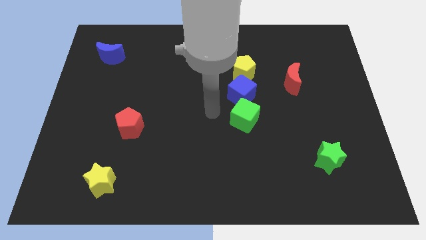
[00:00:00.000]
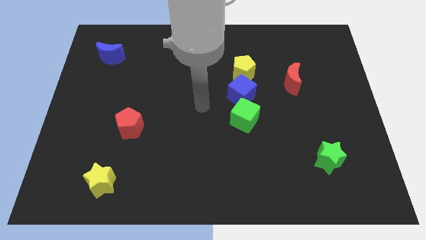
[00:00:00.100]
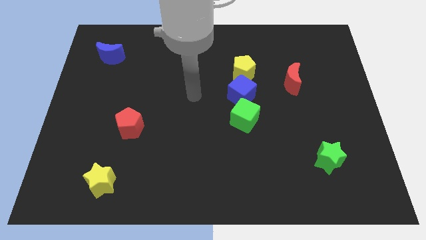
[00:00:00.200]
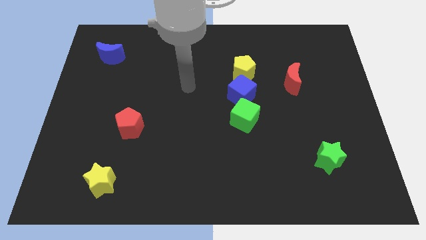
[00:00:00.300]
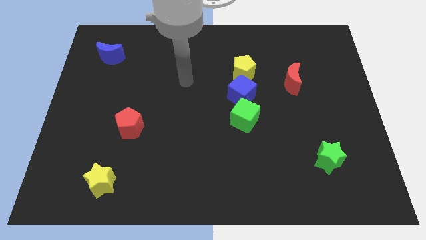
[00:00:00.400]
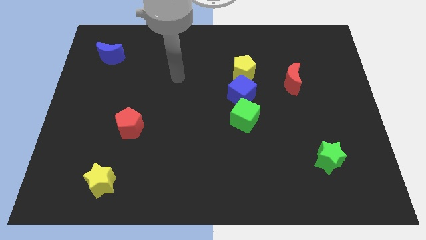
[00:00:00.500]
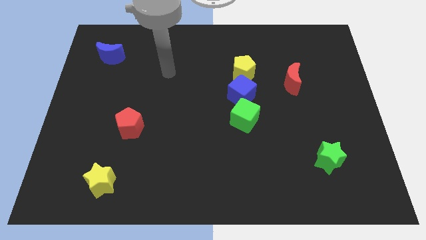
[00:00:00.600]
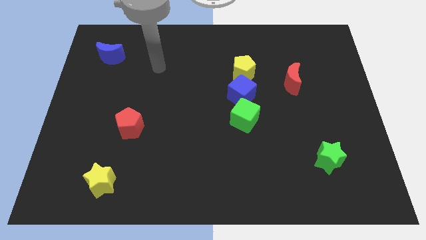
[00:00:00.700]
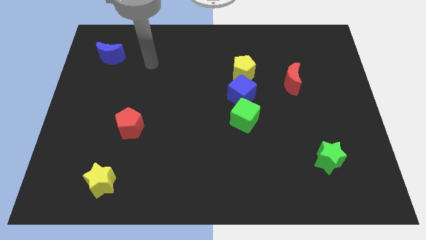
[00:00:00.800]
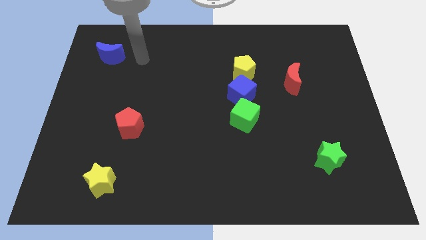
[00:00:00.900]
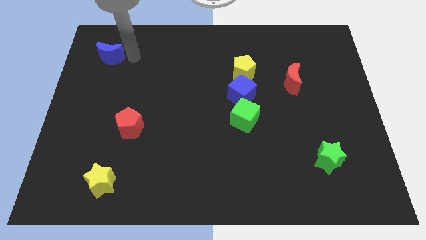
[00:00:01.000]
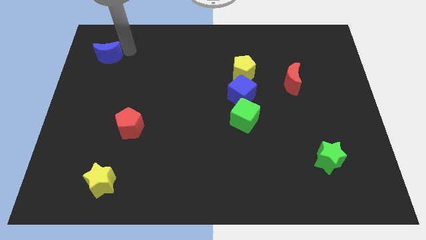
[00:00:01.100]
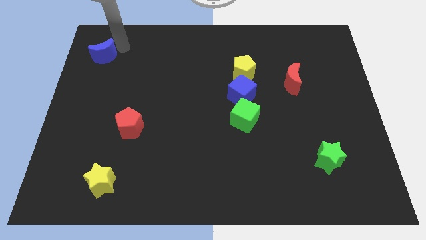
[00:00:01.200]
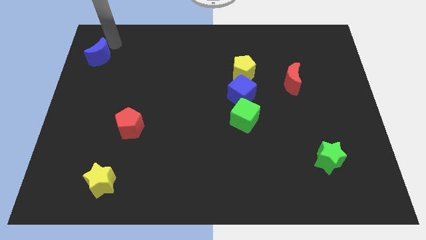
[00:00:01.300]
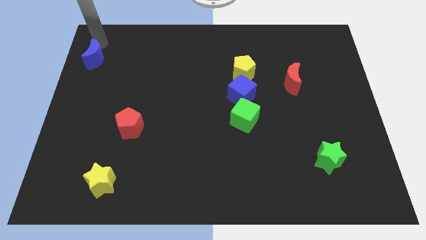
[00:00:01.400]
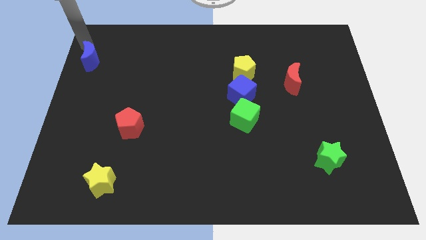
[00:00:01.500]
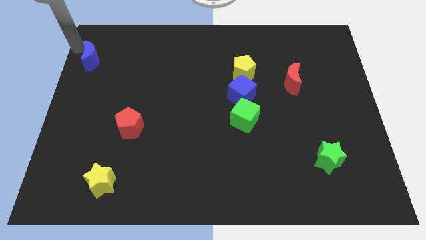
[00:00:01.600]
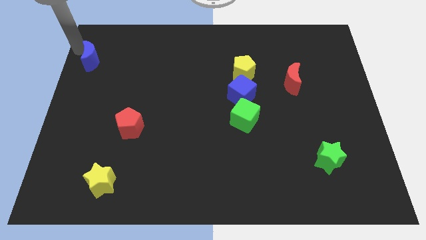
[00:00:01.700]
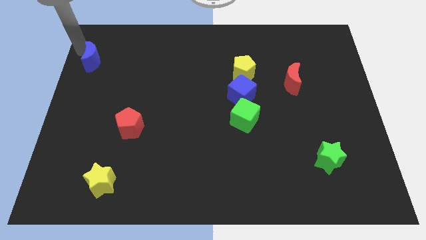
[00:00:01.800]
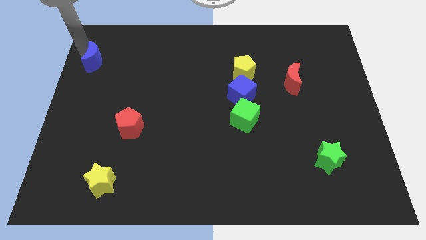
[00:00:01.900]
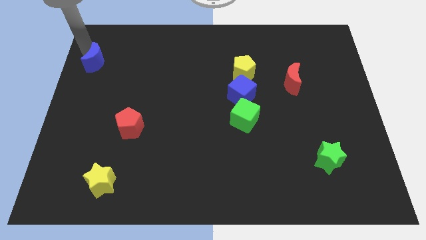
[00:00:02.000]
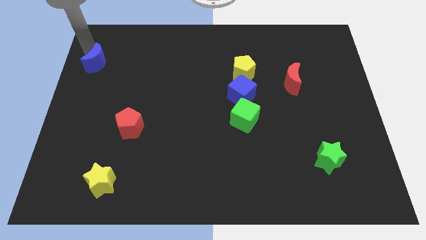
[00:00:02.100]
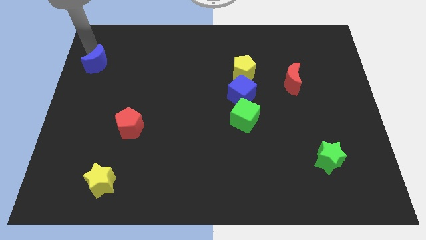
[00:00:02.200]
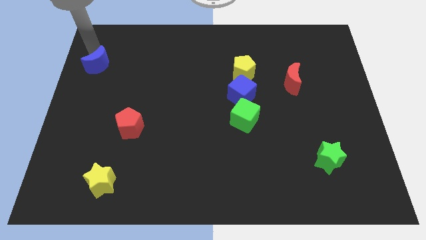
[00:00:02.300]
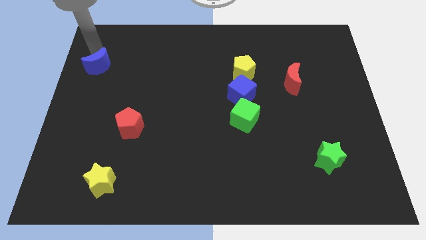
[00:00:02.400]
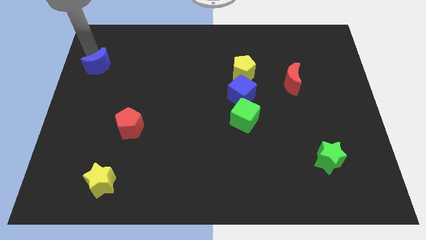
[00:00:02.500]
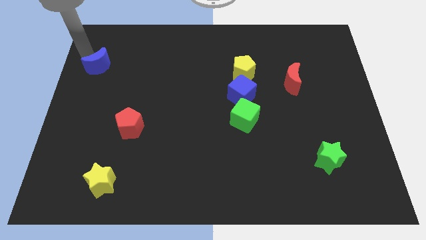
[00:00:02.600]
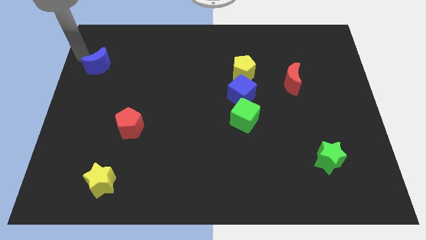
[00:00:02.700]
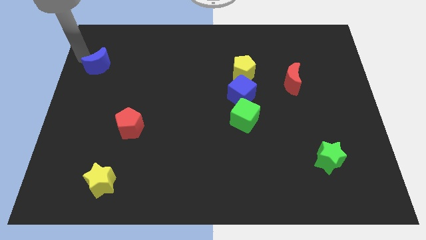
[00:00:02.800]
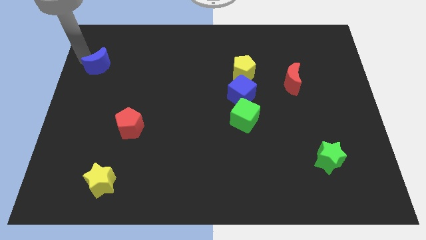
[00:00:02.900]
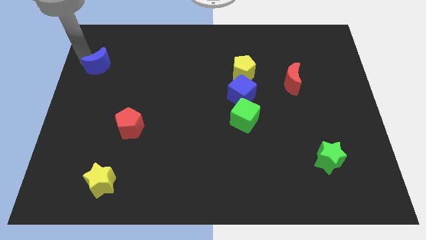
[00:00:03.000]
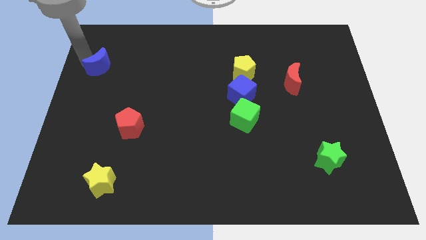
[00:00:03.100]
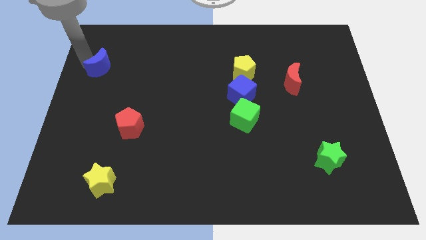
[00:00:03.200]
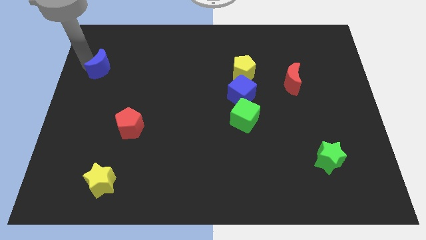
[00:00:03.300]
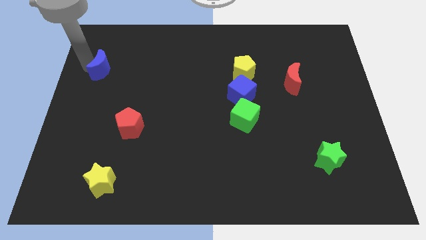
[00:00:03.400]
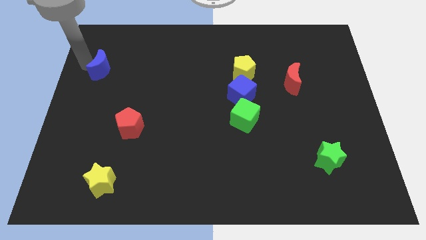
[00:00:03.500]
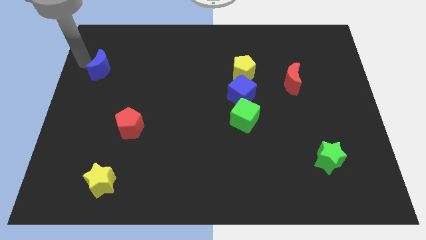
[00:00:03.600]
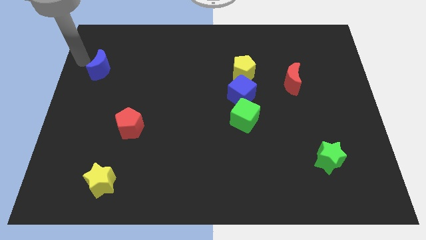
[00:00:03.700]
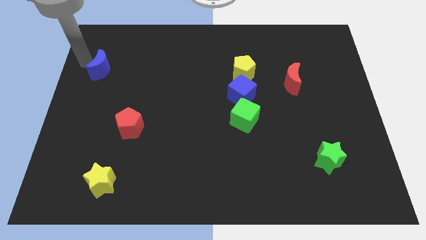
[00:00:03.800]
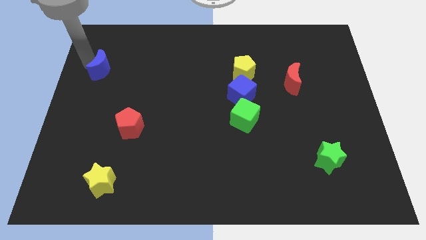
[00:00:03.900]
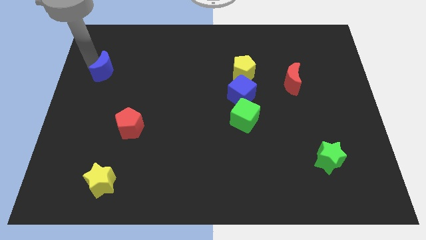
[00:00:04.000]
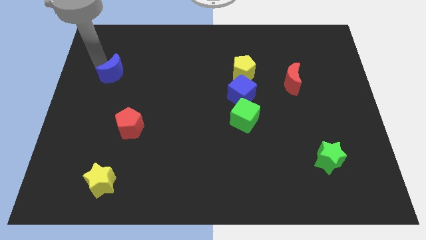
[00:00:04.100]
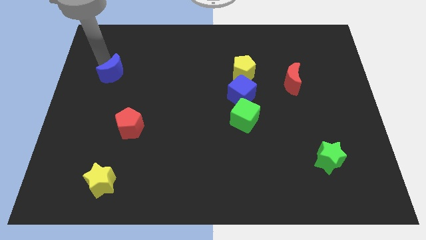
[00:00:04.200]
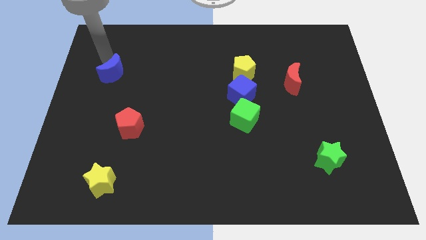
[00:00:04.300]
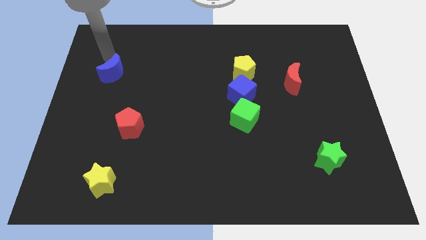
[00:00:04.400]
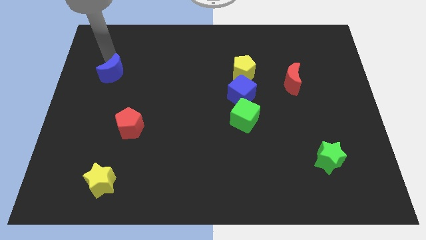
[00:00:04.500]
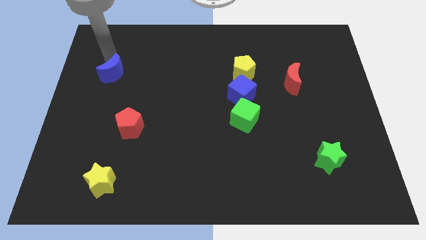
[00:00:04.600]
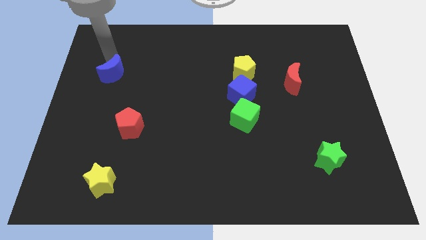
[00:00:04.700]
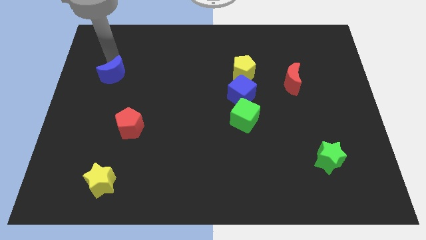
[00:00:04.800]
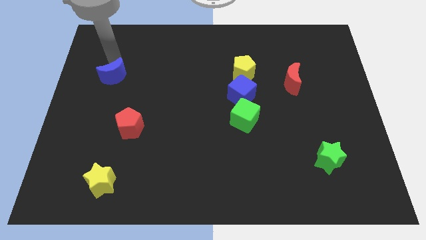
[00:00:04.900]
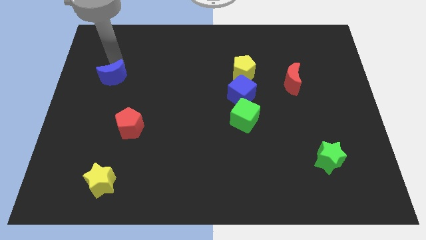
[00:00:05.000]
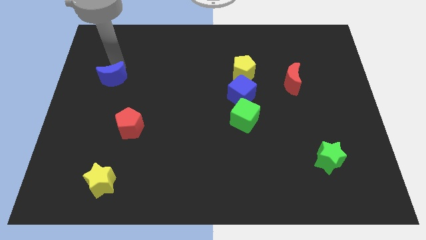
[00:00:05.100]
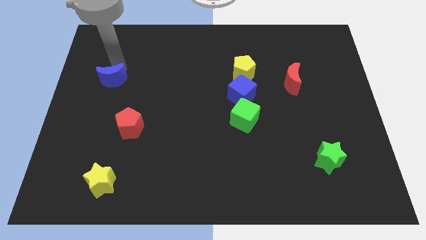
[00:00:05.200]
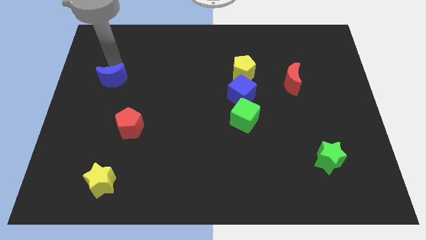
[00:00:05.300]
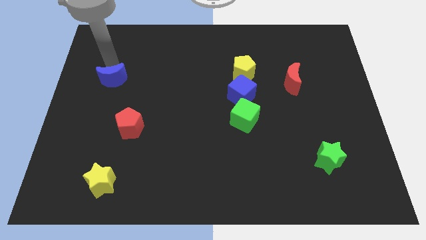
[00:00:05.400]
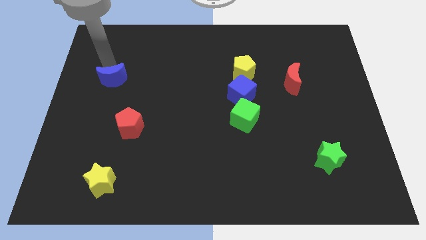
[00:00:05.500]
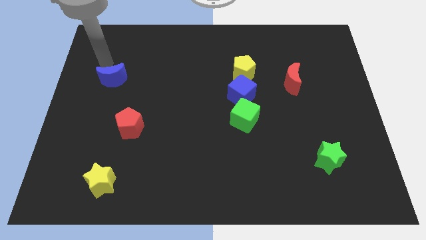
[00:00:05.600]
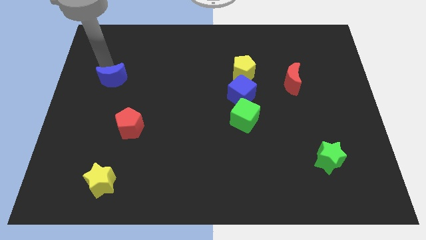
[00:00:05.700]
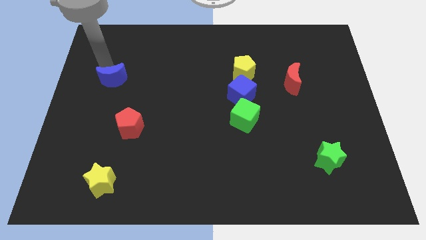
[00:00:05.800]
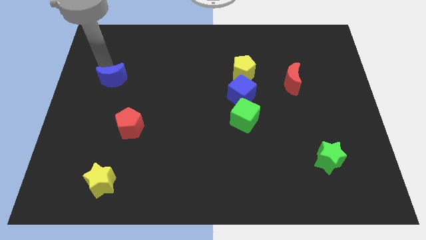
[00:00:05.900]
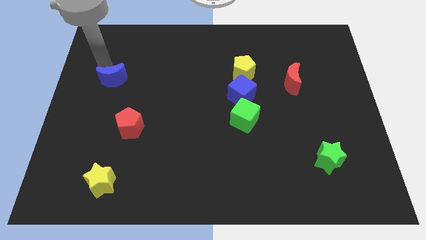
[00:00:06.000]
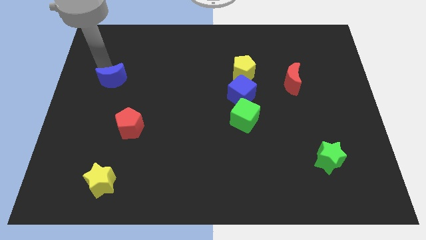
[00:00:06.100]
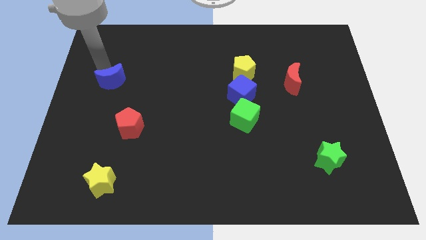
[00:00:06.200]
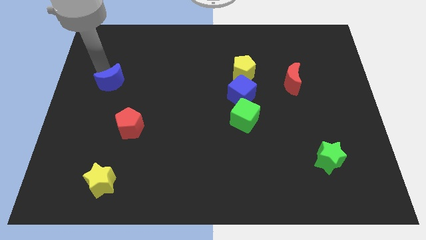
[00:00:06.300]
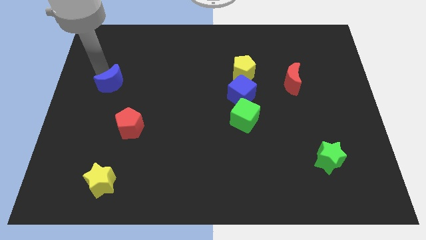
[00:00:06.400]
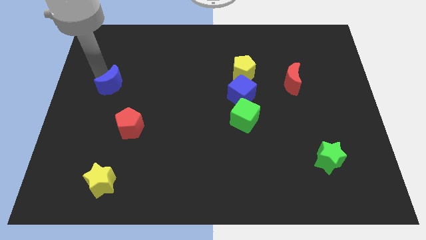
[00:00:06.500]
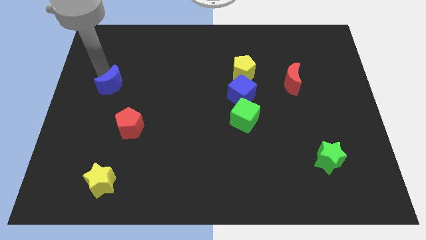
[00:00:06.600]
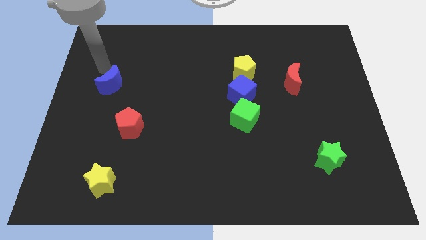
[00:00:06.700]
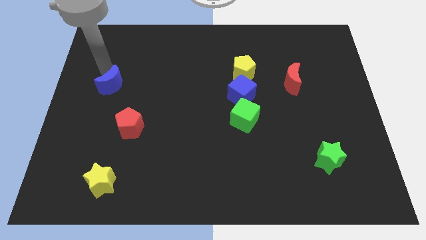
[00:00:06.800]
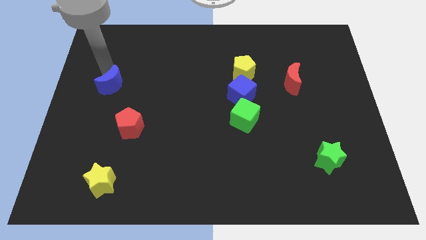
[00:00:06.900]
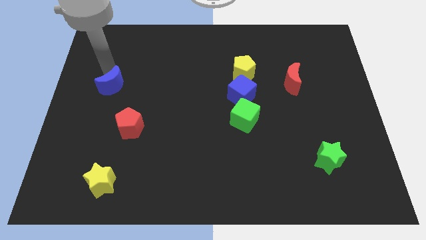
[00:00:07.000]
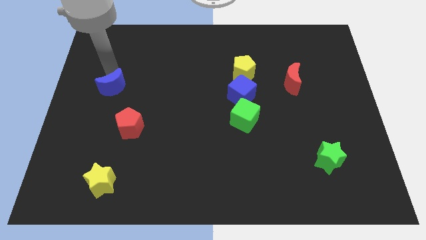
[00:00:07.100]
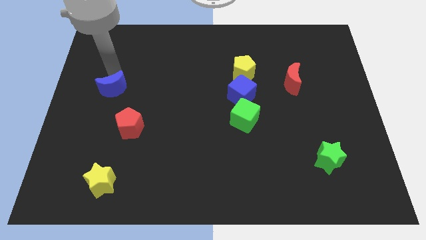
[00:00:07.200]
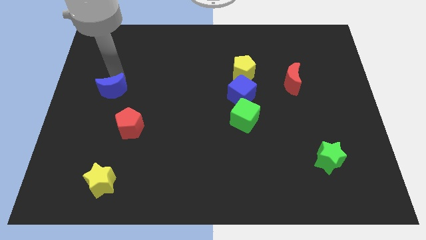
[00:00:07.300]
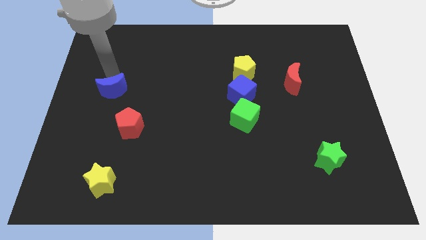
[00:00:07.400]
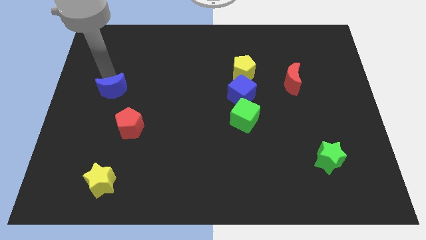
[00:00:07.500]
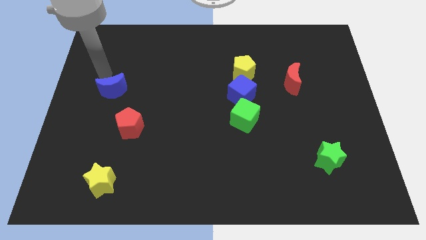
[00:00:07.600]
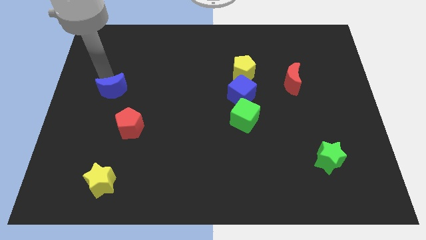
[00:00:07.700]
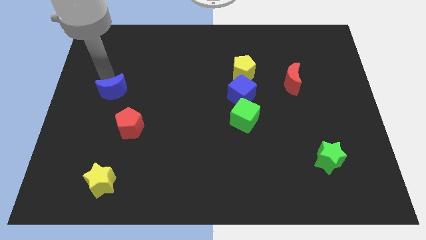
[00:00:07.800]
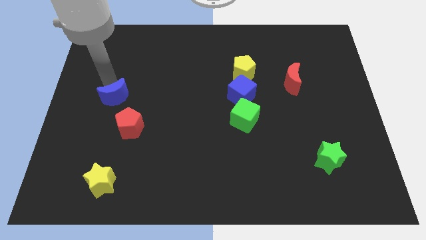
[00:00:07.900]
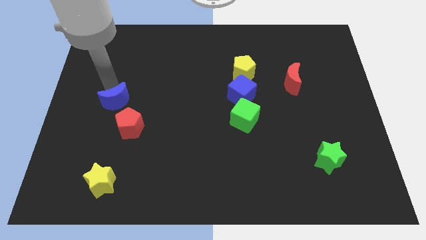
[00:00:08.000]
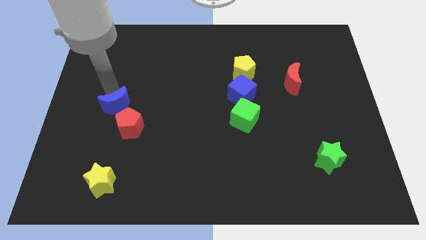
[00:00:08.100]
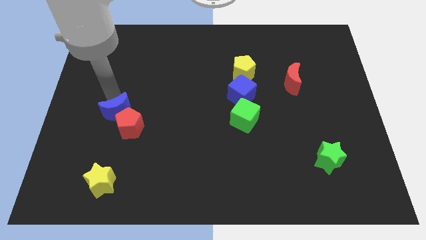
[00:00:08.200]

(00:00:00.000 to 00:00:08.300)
put the blue moon next to the red pentagon
